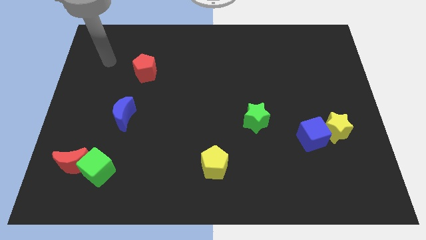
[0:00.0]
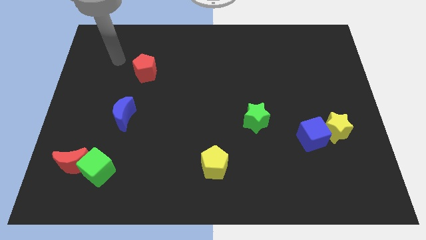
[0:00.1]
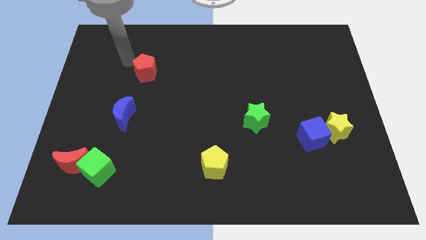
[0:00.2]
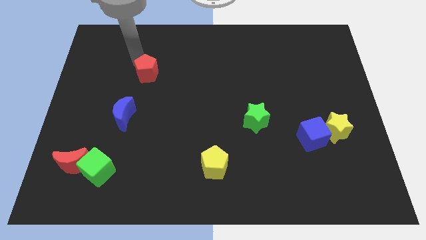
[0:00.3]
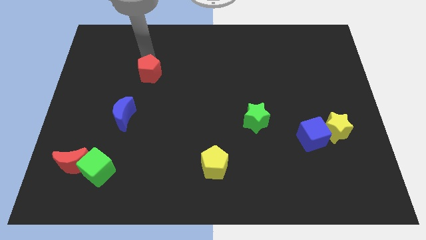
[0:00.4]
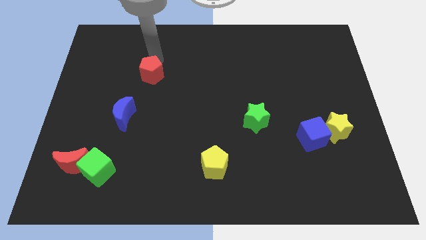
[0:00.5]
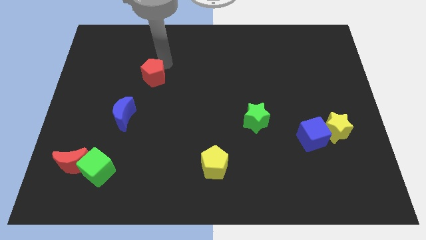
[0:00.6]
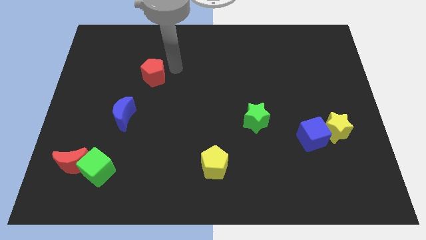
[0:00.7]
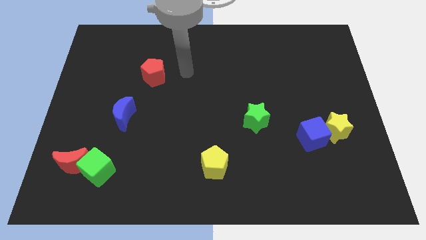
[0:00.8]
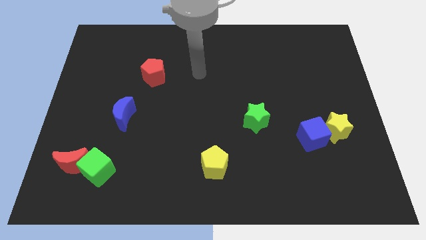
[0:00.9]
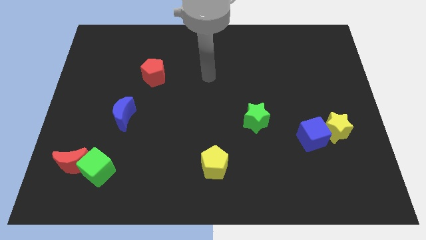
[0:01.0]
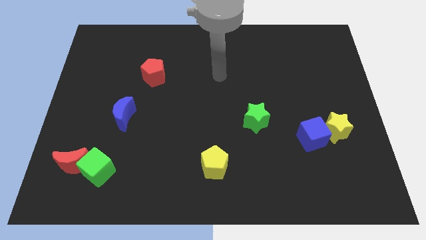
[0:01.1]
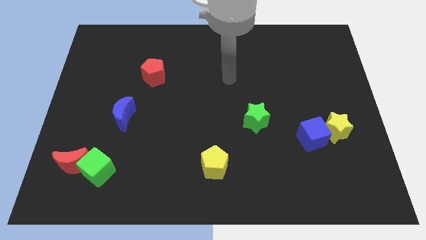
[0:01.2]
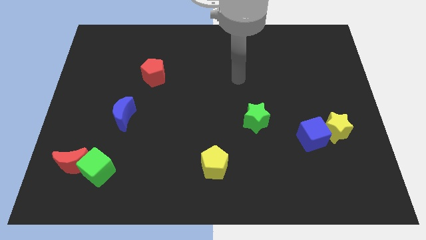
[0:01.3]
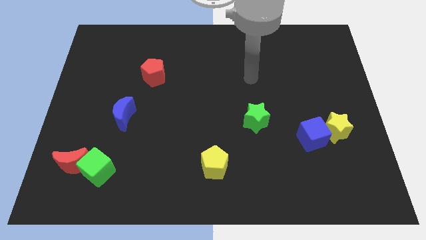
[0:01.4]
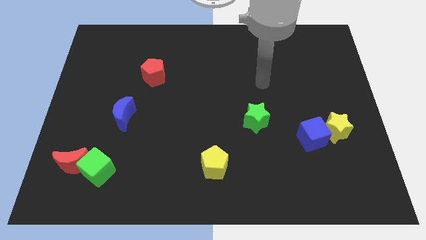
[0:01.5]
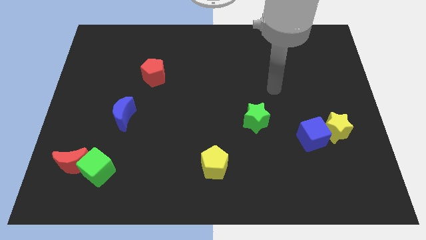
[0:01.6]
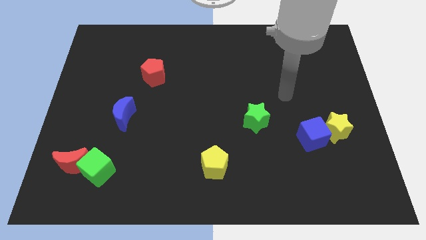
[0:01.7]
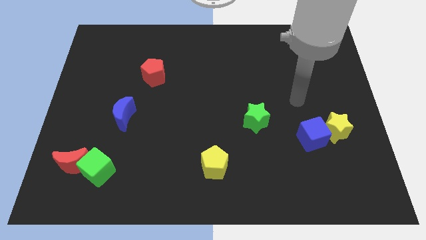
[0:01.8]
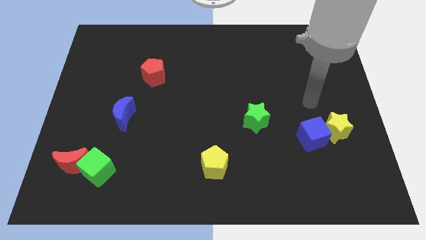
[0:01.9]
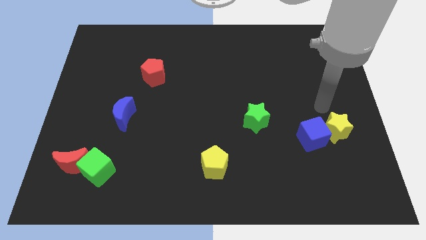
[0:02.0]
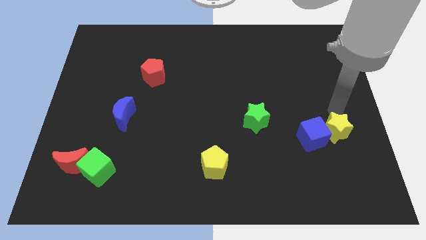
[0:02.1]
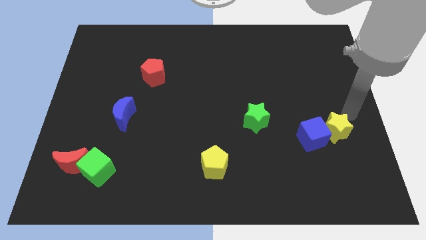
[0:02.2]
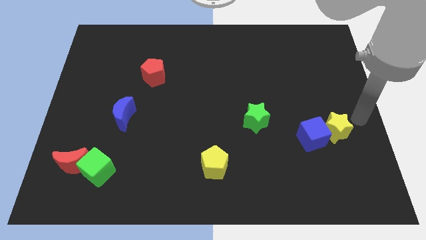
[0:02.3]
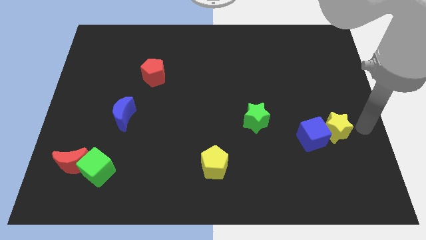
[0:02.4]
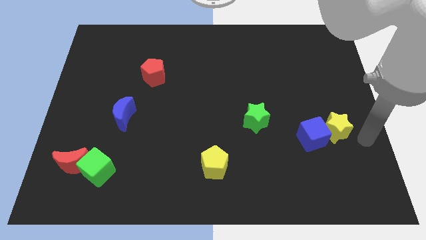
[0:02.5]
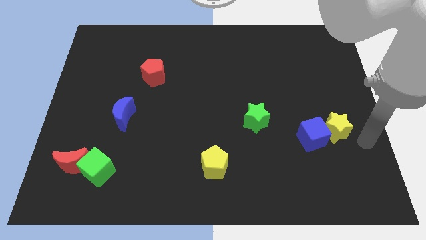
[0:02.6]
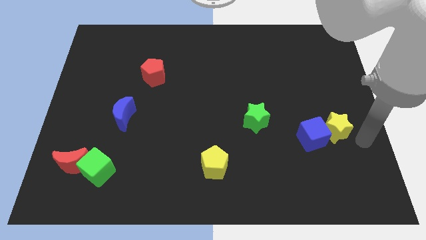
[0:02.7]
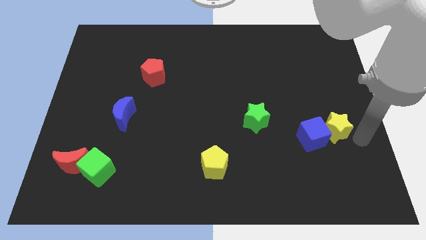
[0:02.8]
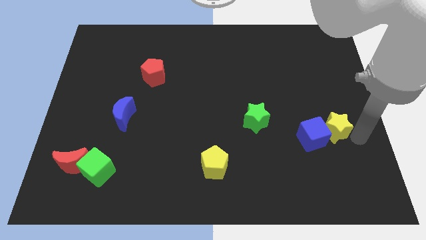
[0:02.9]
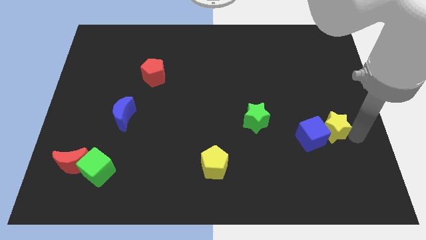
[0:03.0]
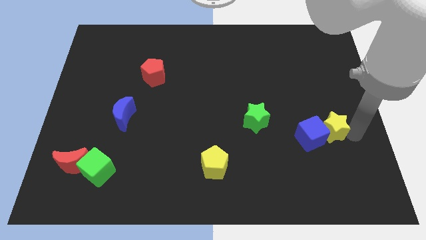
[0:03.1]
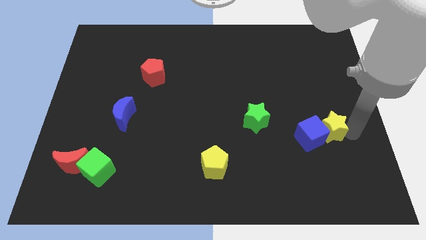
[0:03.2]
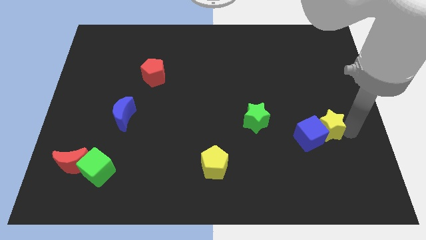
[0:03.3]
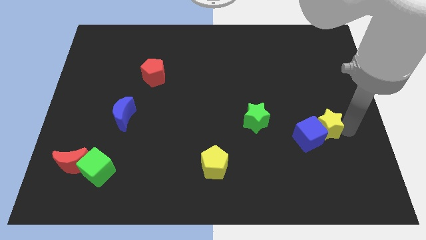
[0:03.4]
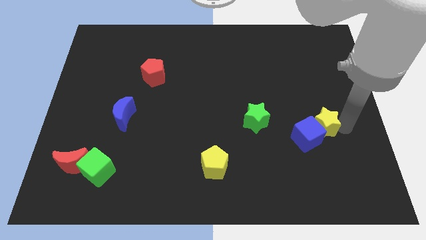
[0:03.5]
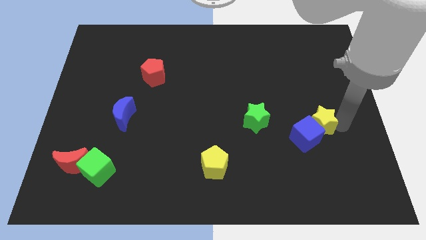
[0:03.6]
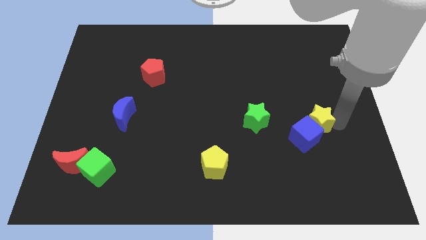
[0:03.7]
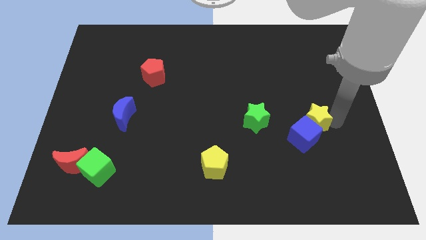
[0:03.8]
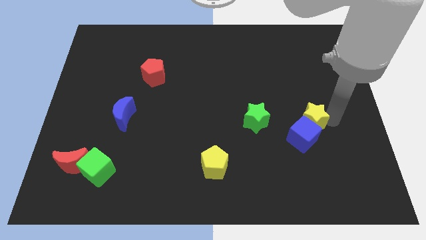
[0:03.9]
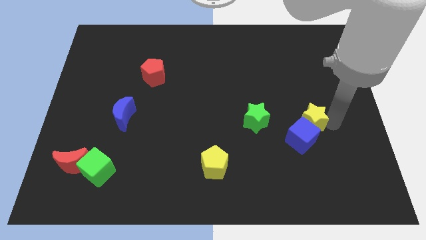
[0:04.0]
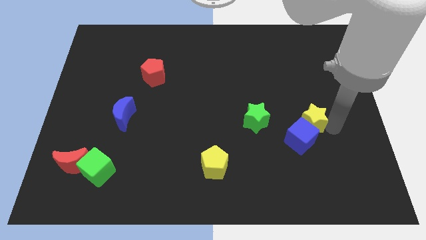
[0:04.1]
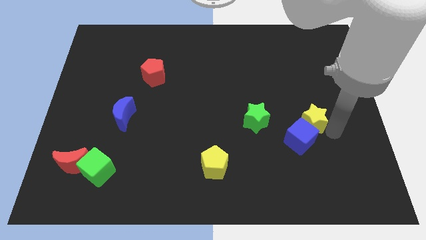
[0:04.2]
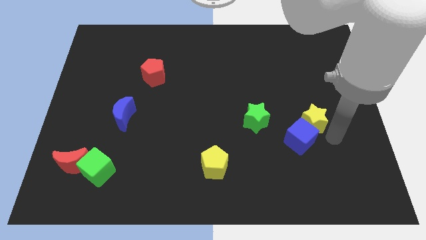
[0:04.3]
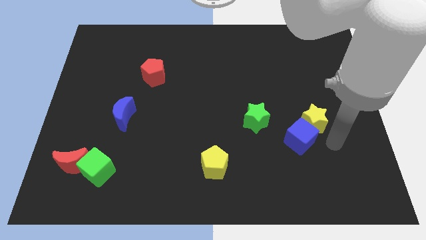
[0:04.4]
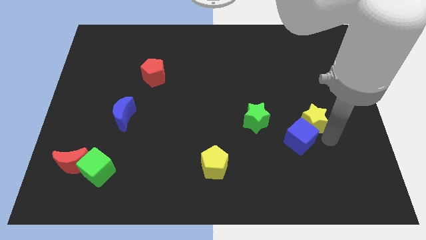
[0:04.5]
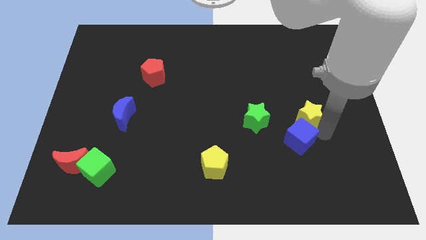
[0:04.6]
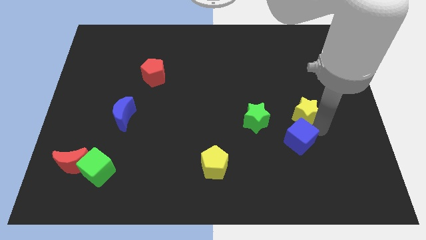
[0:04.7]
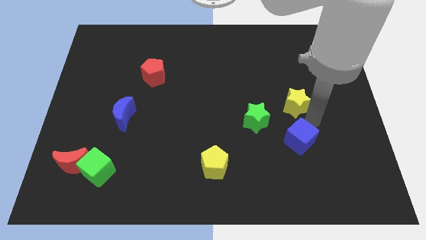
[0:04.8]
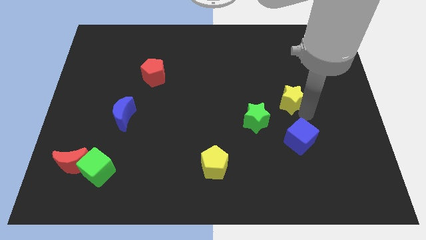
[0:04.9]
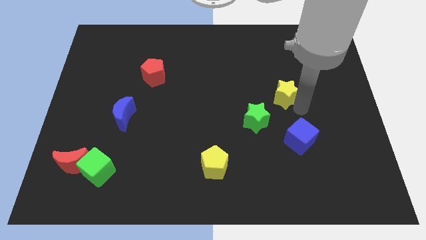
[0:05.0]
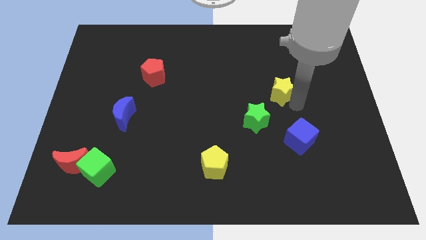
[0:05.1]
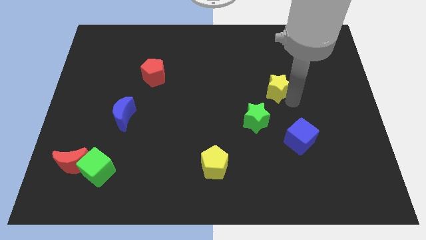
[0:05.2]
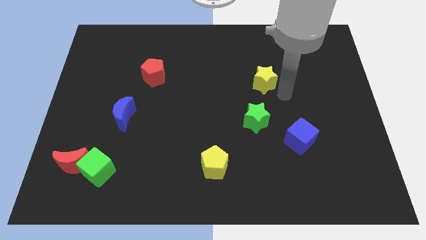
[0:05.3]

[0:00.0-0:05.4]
slide the yellow star up and left

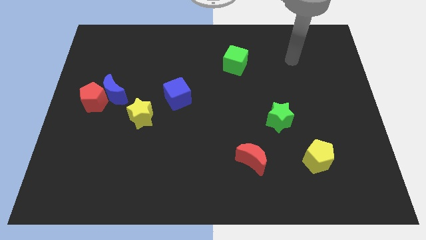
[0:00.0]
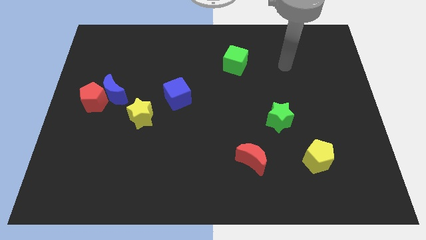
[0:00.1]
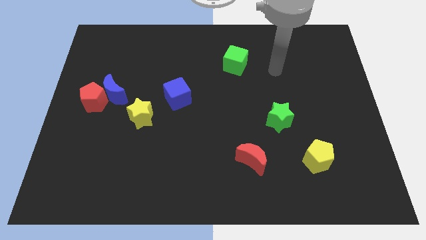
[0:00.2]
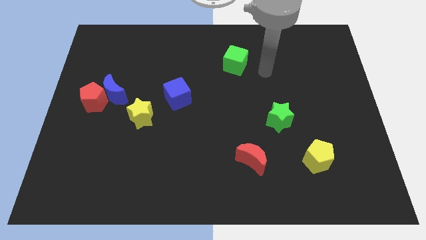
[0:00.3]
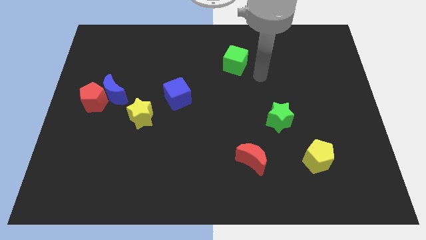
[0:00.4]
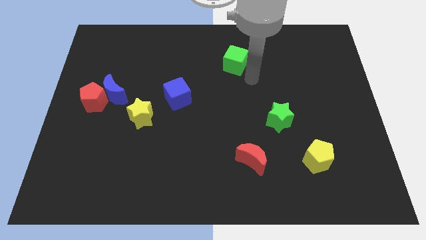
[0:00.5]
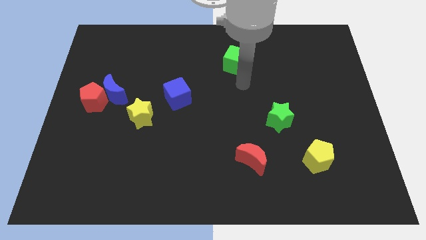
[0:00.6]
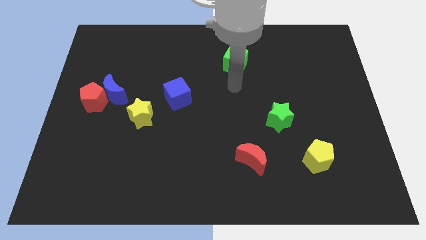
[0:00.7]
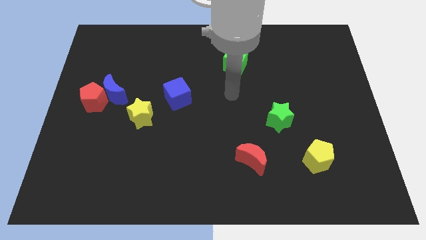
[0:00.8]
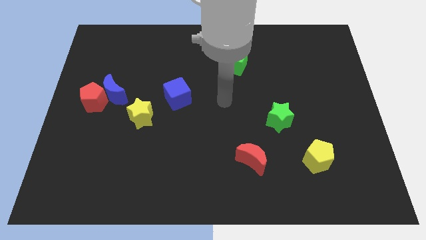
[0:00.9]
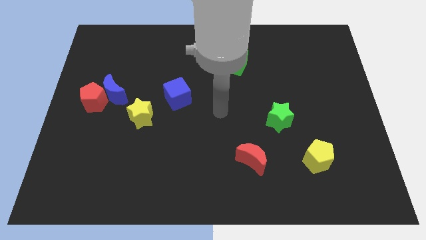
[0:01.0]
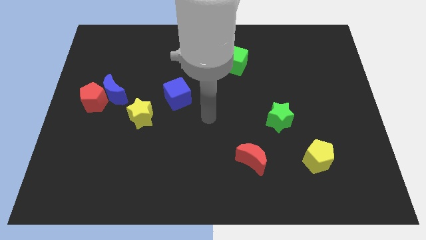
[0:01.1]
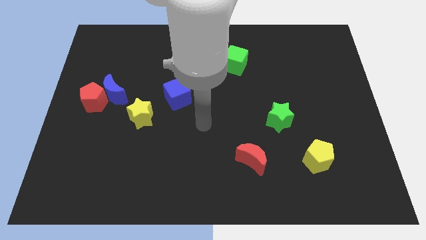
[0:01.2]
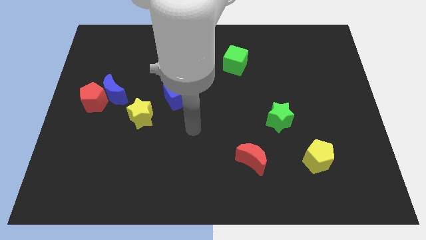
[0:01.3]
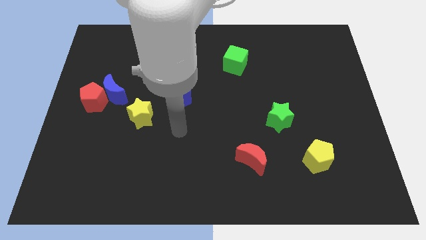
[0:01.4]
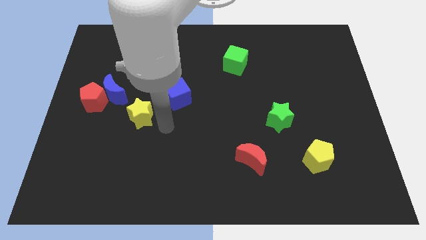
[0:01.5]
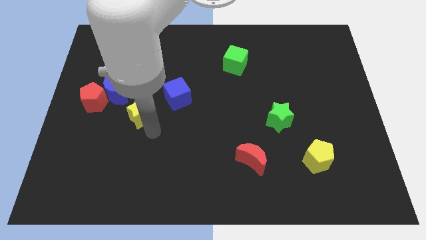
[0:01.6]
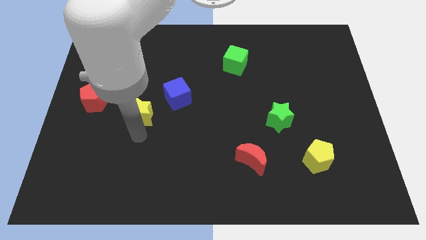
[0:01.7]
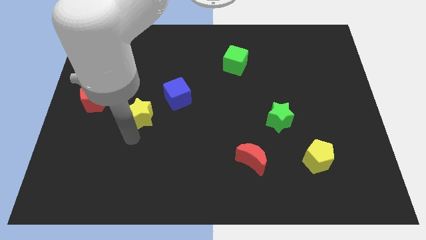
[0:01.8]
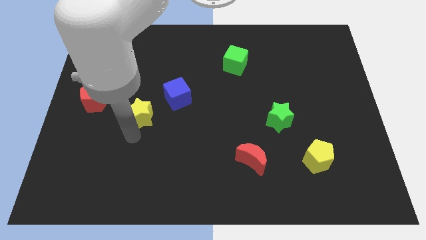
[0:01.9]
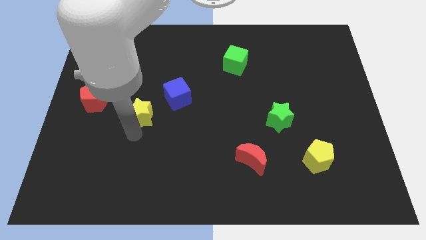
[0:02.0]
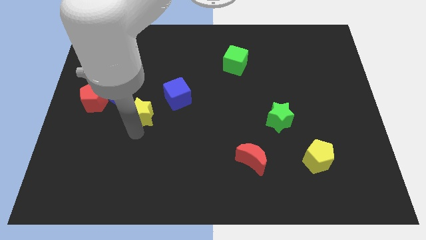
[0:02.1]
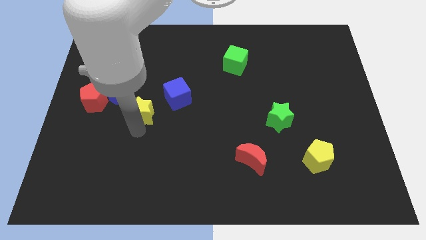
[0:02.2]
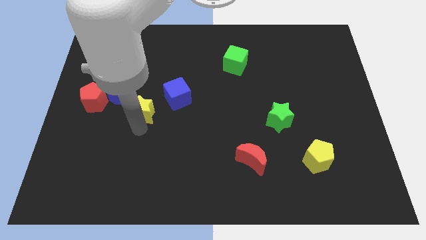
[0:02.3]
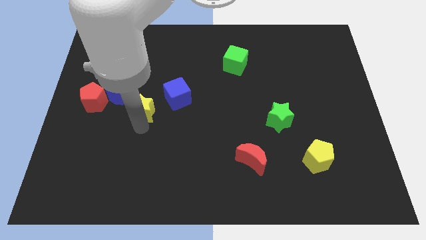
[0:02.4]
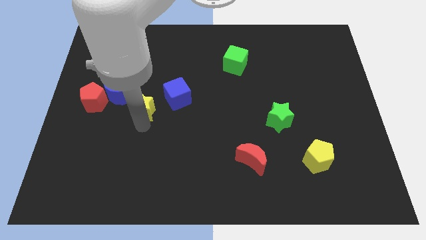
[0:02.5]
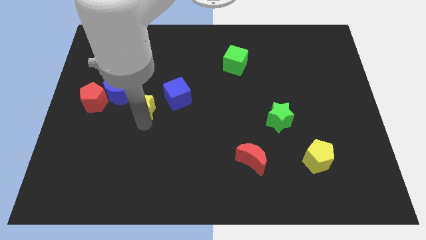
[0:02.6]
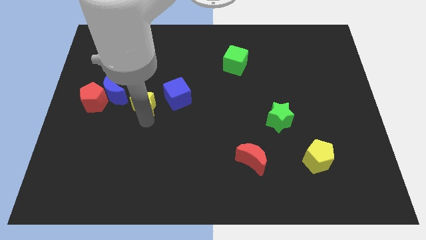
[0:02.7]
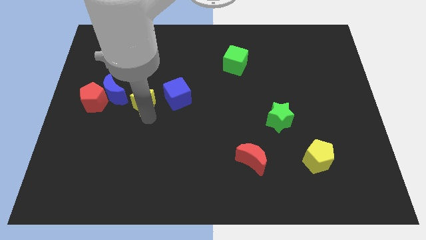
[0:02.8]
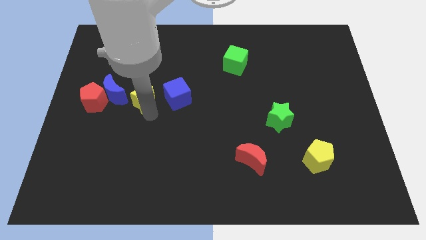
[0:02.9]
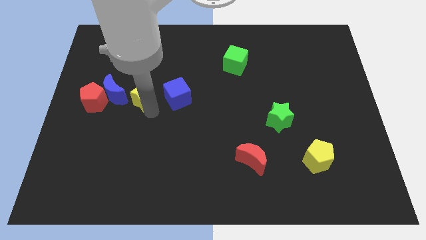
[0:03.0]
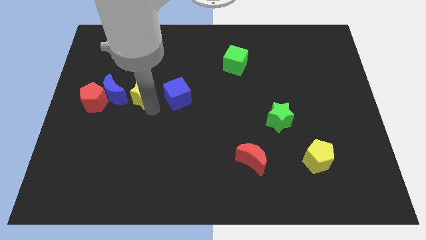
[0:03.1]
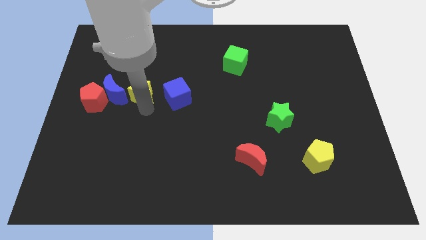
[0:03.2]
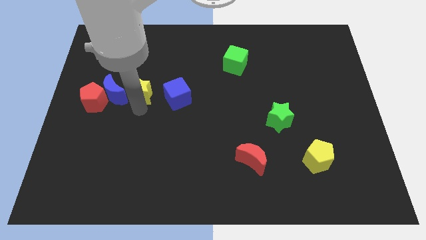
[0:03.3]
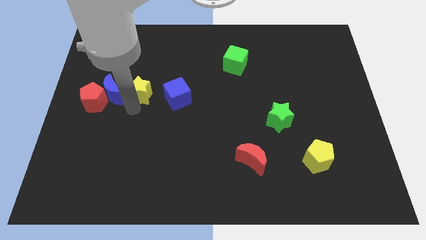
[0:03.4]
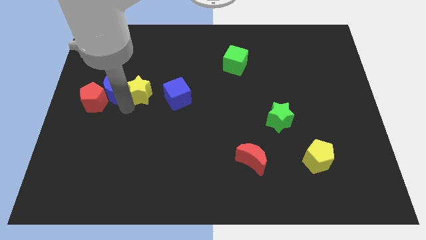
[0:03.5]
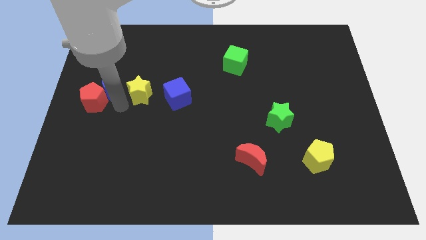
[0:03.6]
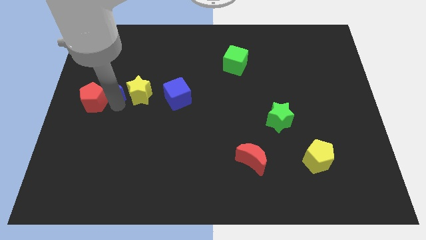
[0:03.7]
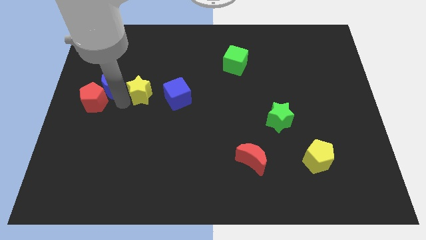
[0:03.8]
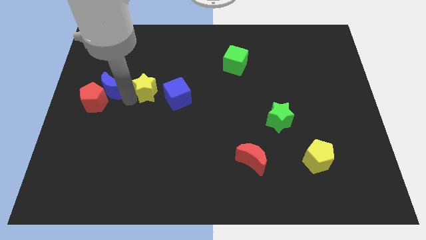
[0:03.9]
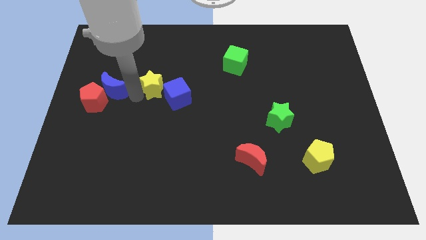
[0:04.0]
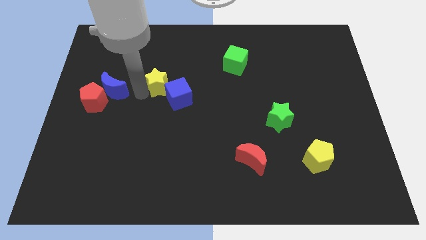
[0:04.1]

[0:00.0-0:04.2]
slightly move the yellow star diagonally upwards and to the right
